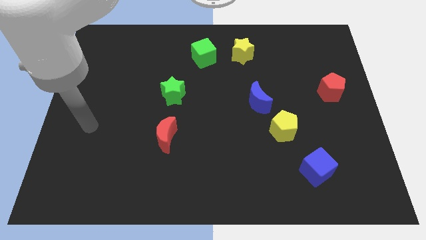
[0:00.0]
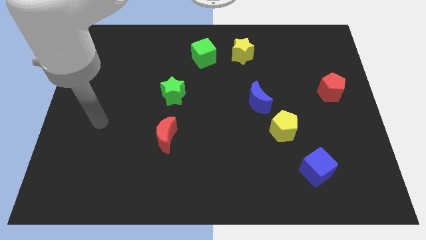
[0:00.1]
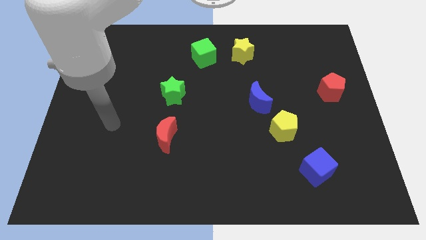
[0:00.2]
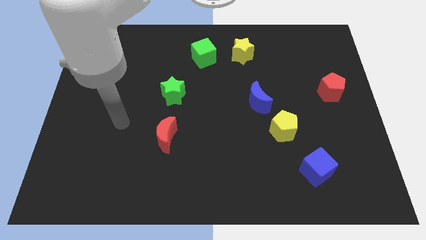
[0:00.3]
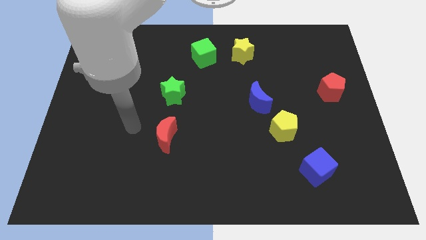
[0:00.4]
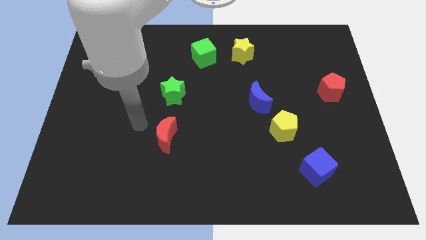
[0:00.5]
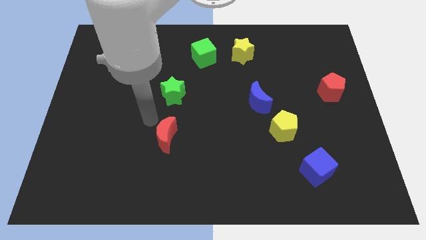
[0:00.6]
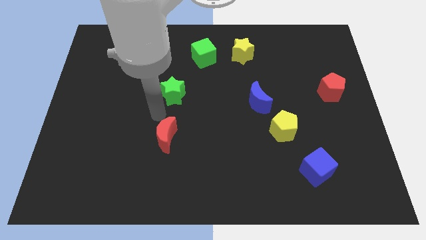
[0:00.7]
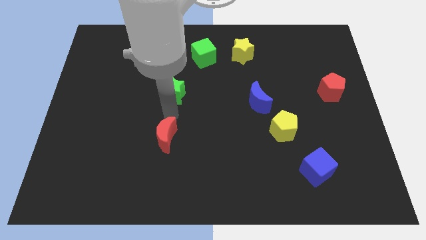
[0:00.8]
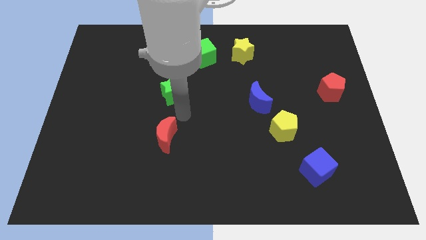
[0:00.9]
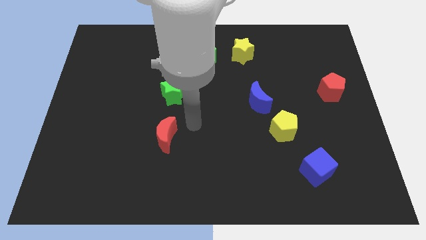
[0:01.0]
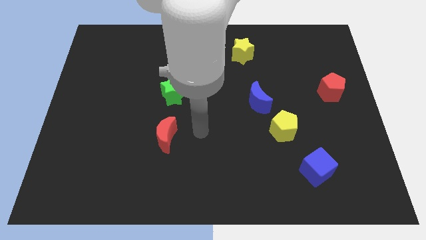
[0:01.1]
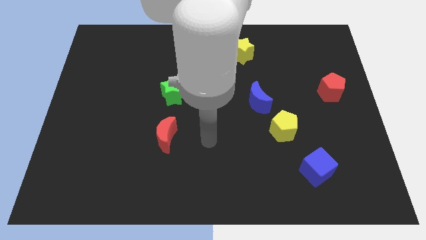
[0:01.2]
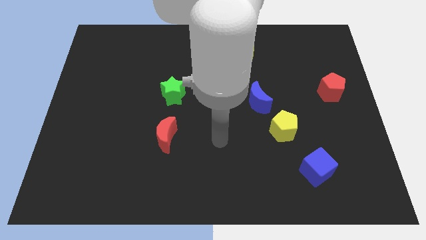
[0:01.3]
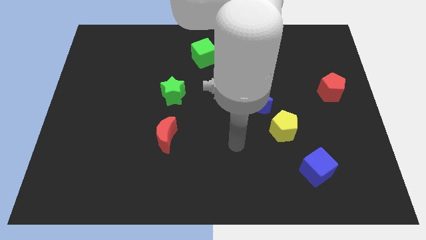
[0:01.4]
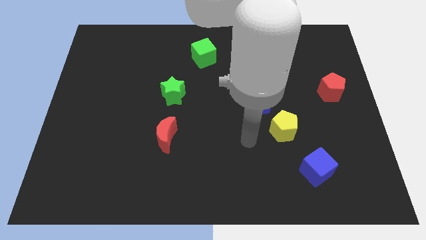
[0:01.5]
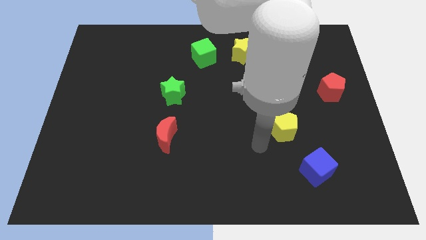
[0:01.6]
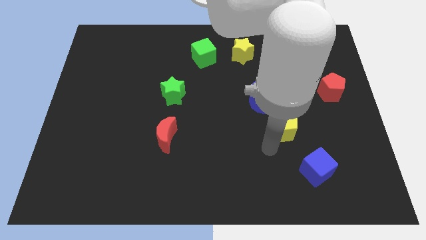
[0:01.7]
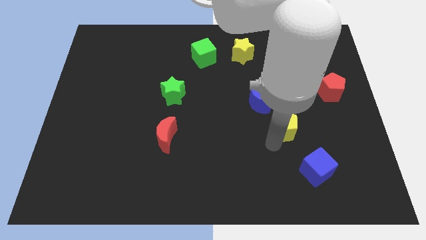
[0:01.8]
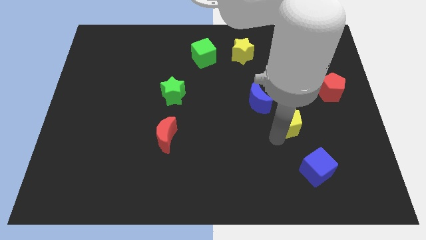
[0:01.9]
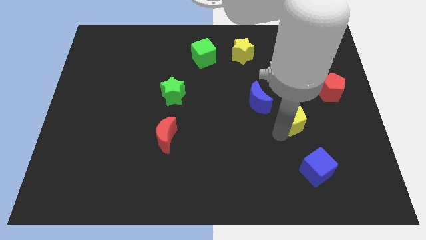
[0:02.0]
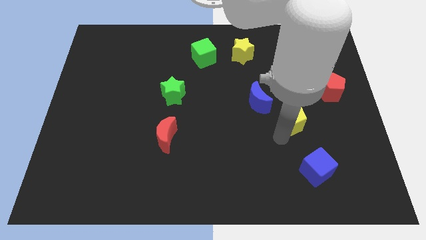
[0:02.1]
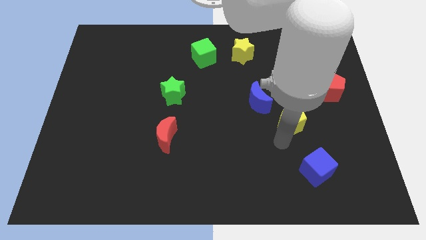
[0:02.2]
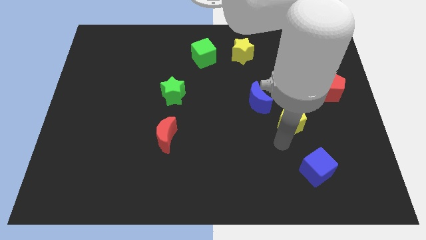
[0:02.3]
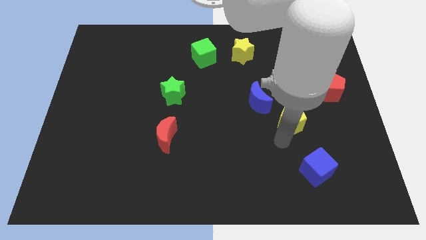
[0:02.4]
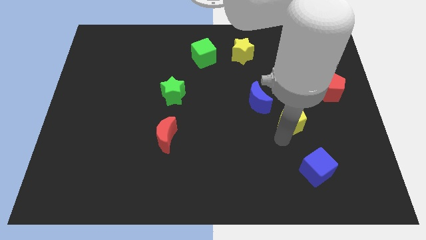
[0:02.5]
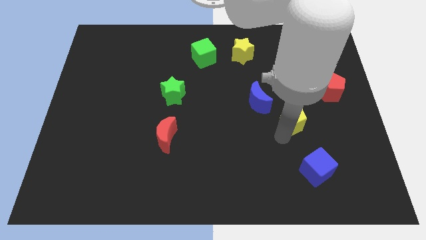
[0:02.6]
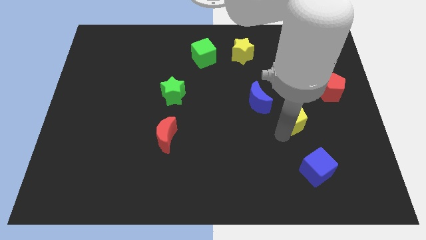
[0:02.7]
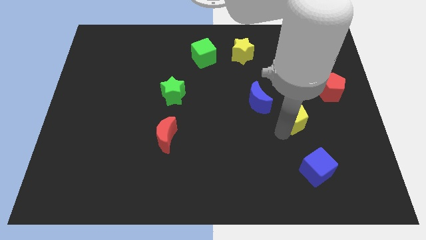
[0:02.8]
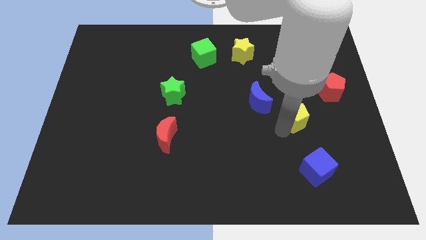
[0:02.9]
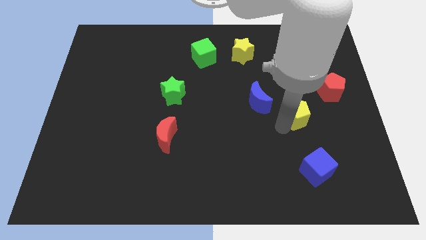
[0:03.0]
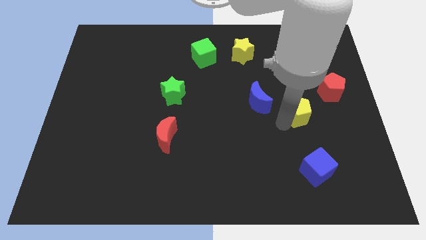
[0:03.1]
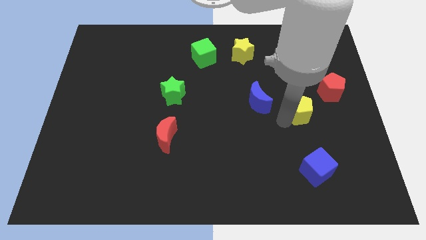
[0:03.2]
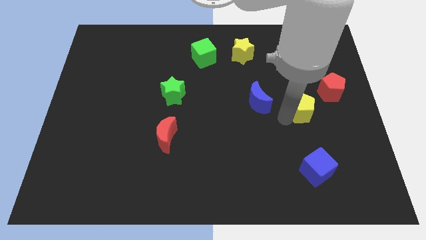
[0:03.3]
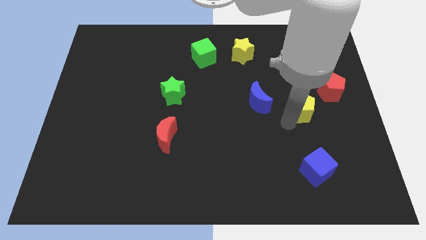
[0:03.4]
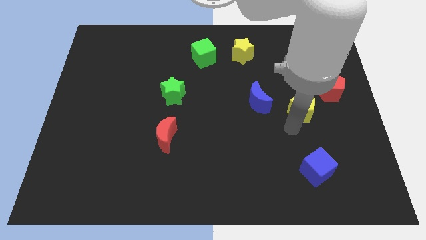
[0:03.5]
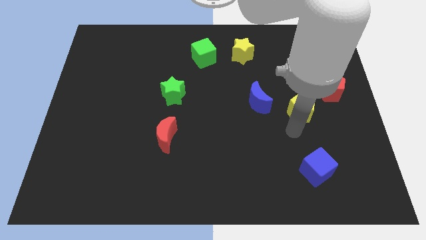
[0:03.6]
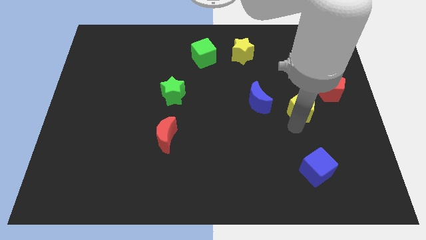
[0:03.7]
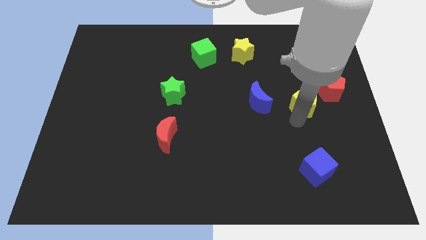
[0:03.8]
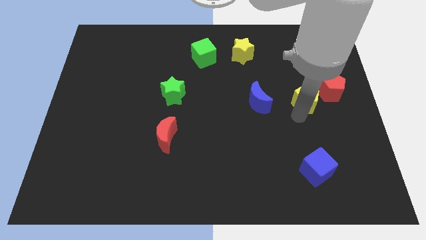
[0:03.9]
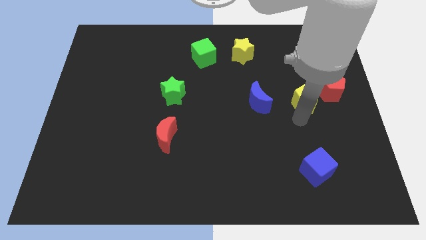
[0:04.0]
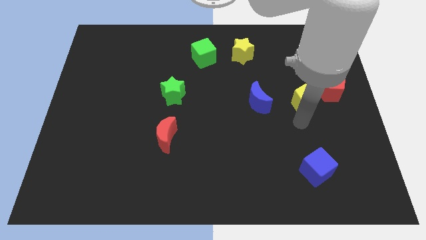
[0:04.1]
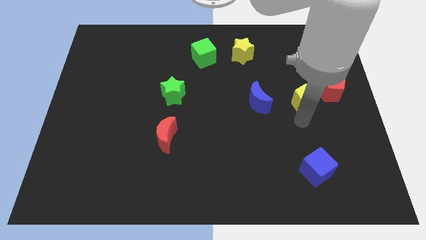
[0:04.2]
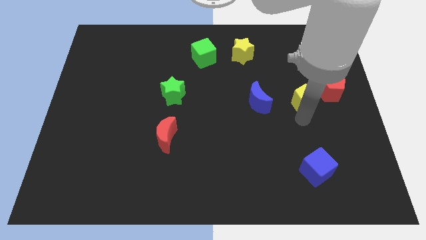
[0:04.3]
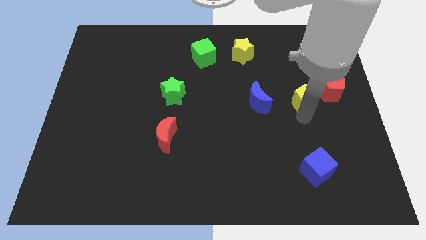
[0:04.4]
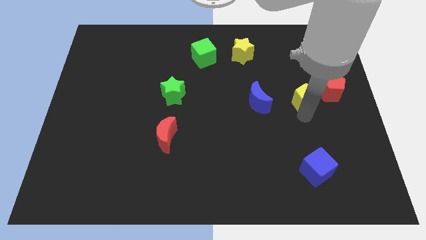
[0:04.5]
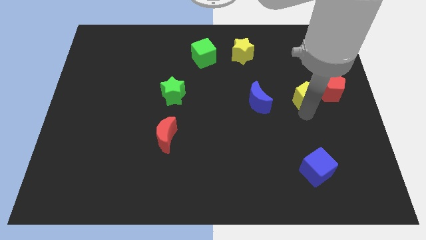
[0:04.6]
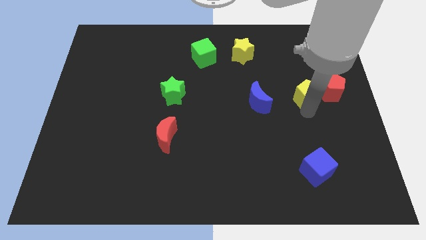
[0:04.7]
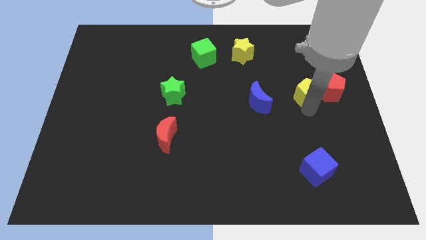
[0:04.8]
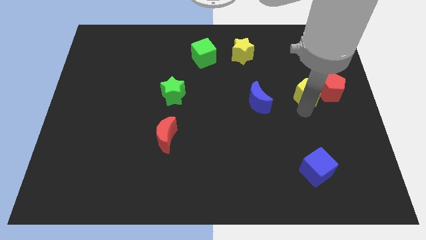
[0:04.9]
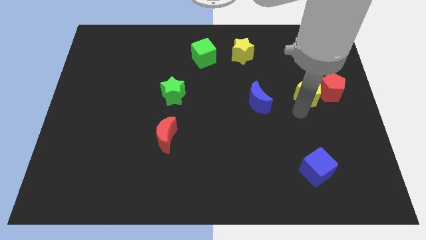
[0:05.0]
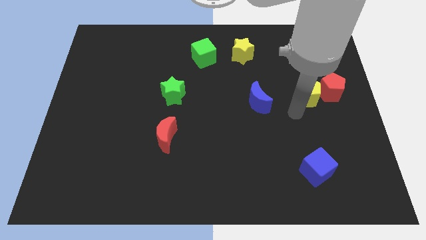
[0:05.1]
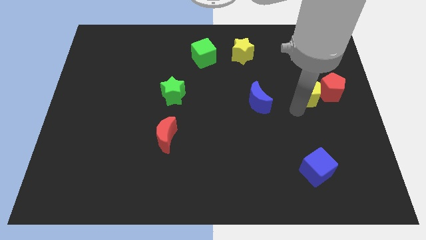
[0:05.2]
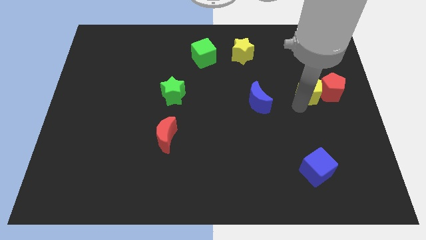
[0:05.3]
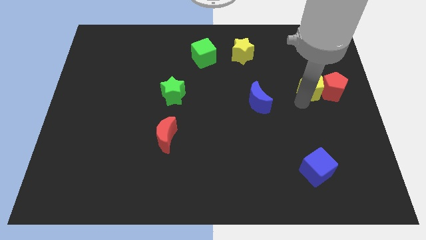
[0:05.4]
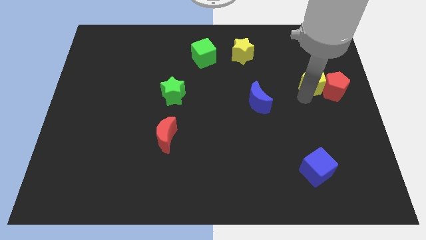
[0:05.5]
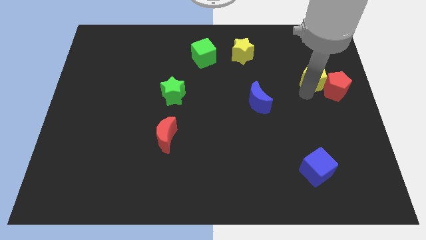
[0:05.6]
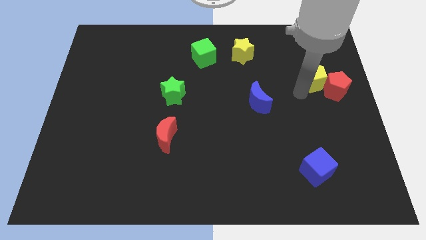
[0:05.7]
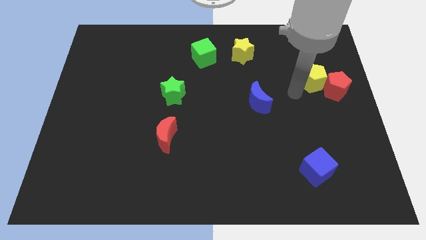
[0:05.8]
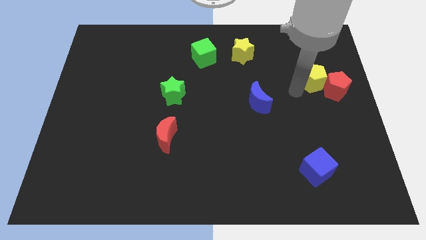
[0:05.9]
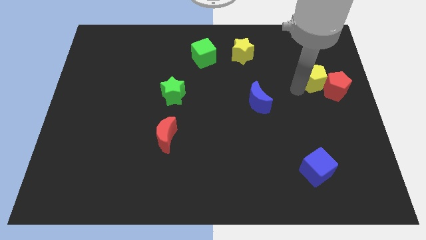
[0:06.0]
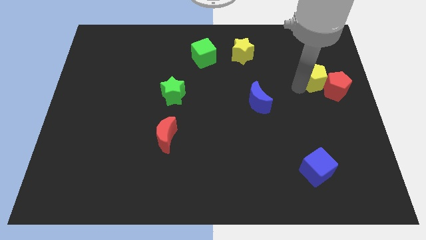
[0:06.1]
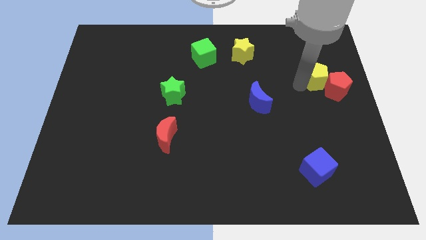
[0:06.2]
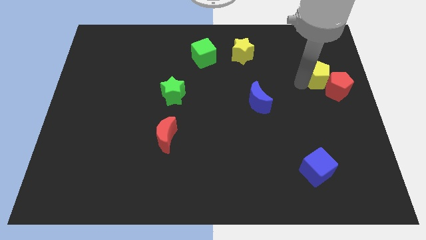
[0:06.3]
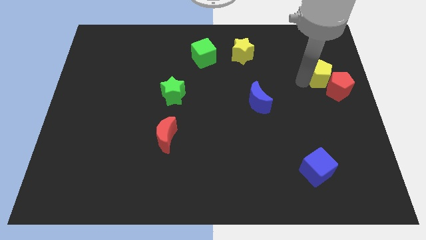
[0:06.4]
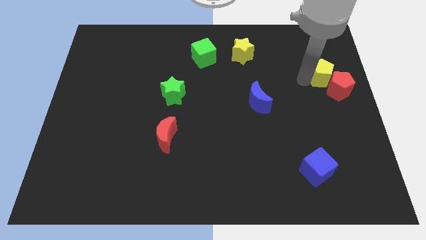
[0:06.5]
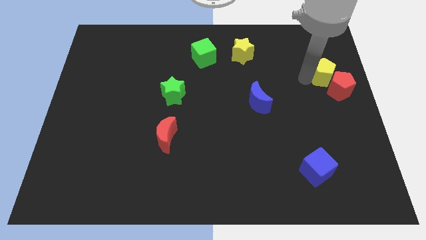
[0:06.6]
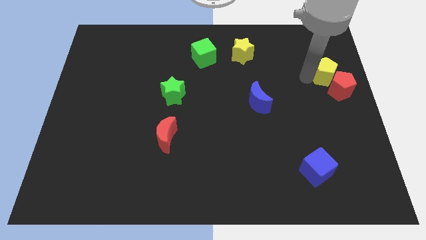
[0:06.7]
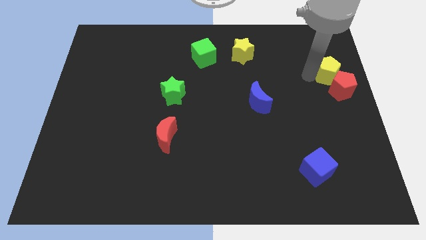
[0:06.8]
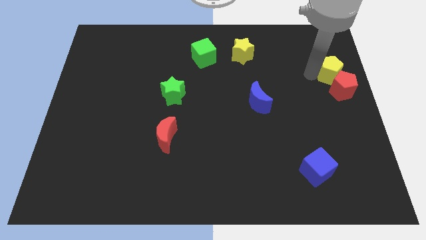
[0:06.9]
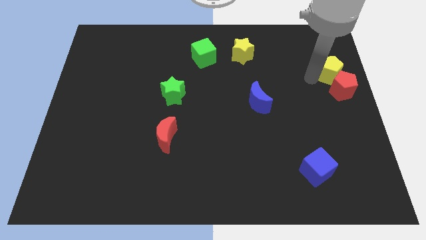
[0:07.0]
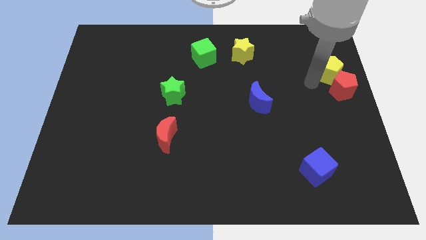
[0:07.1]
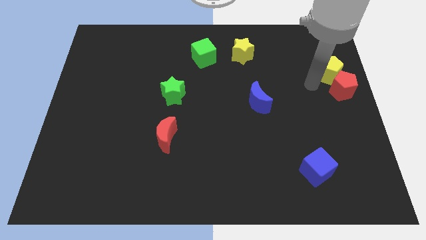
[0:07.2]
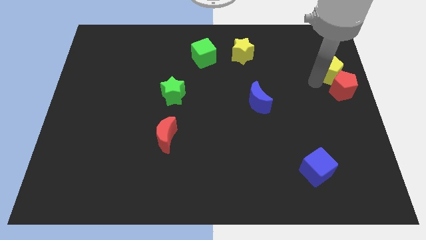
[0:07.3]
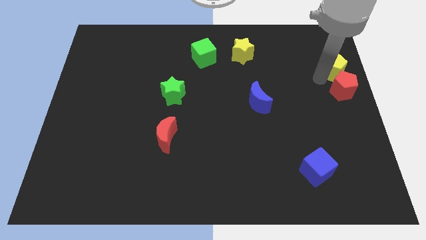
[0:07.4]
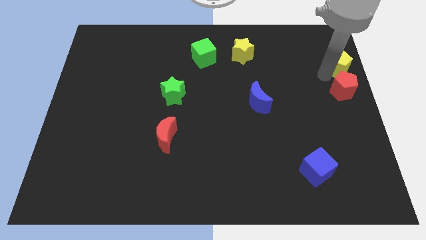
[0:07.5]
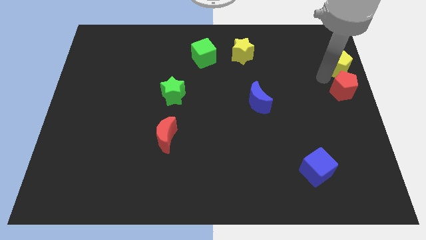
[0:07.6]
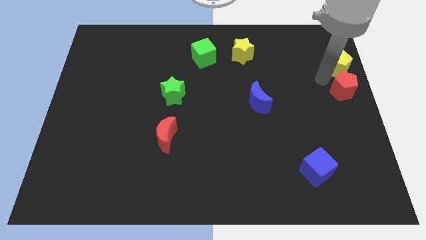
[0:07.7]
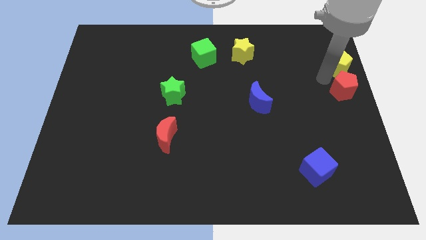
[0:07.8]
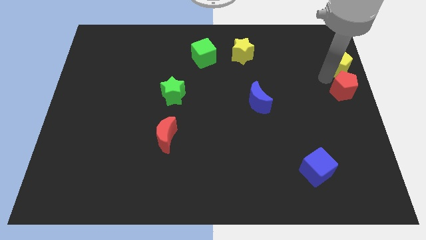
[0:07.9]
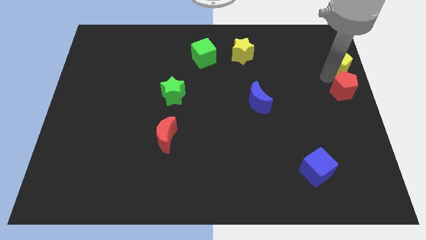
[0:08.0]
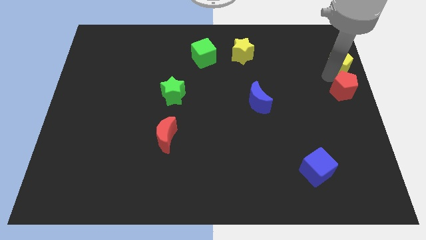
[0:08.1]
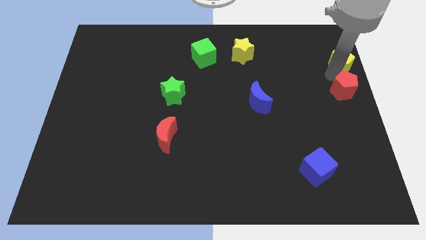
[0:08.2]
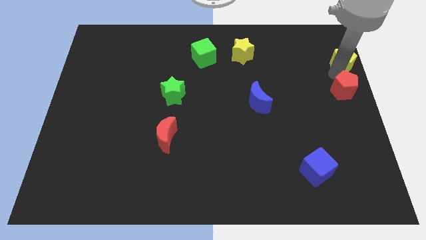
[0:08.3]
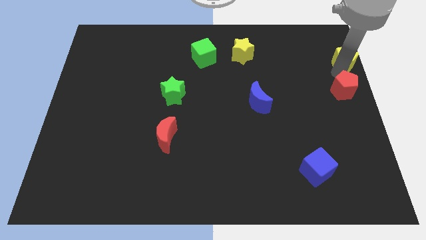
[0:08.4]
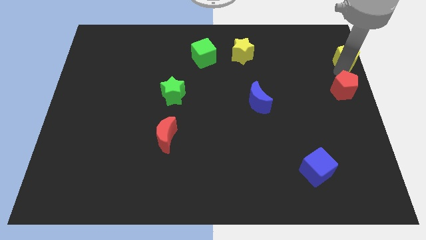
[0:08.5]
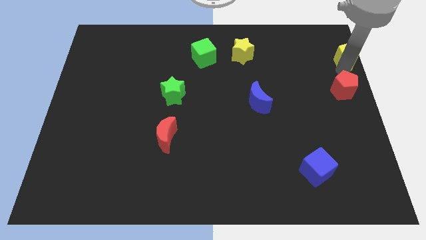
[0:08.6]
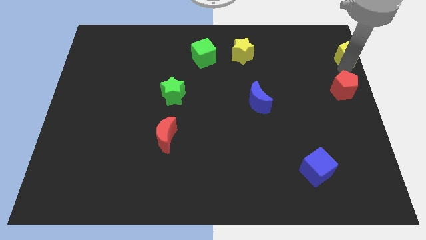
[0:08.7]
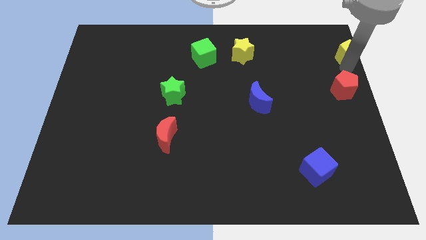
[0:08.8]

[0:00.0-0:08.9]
push the yellow pentagon to the top right of the board
